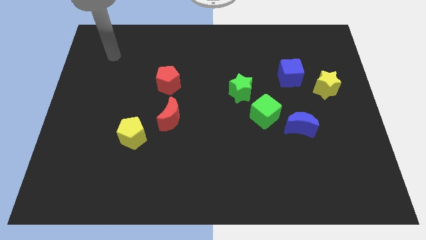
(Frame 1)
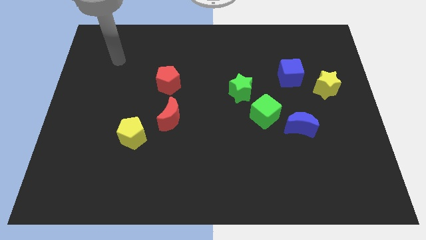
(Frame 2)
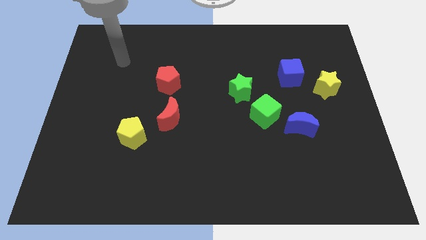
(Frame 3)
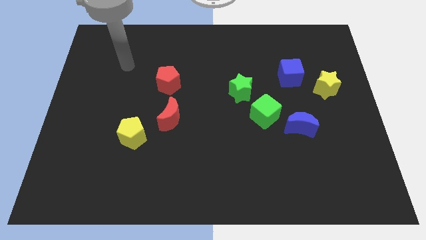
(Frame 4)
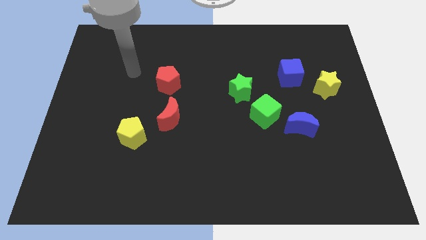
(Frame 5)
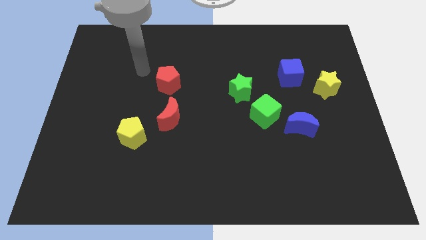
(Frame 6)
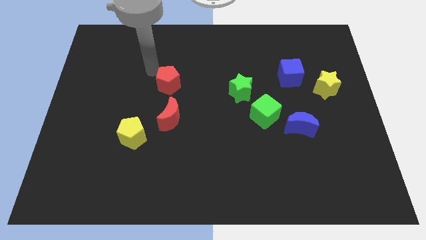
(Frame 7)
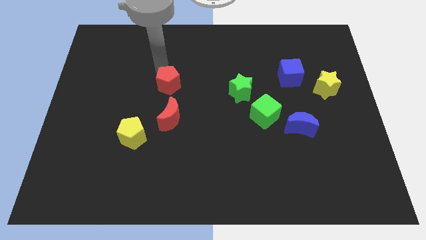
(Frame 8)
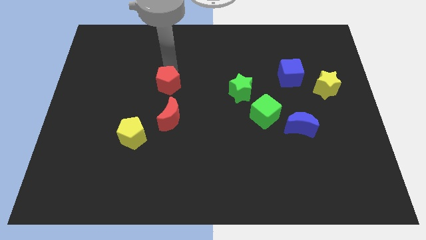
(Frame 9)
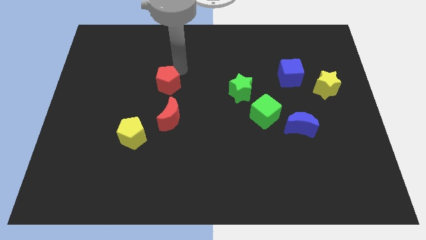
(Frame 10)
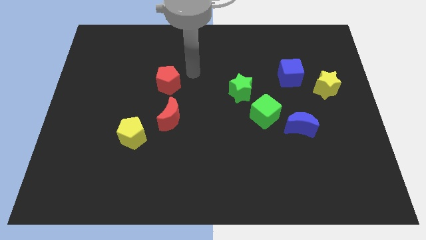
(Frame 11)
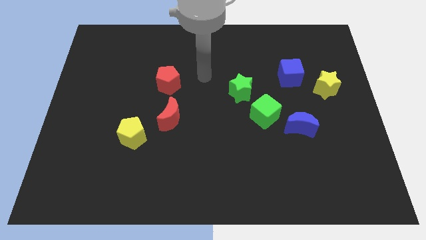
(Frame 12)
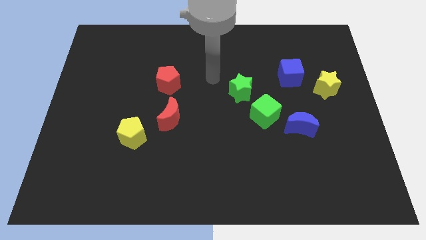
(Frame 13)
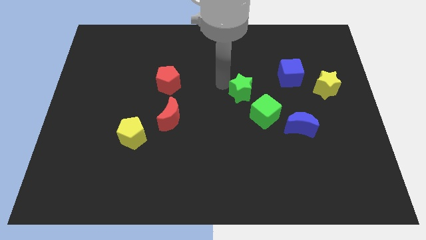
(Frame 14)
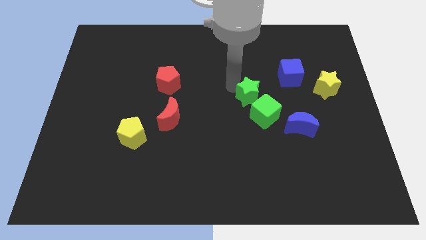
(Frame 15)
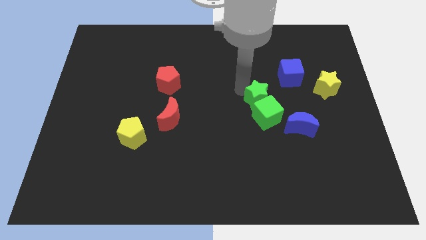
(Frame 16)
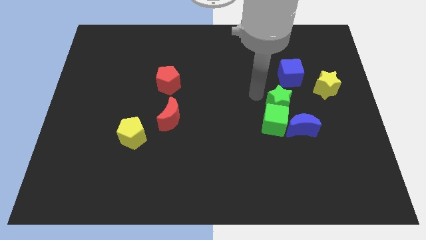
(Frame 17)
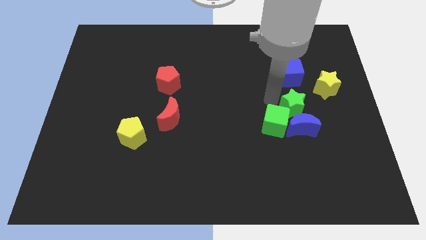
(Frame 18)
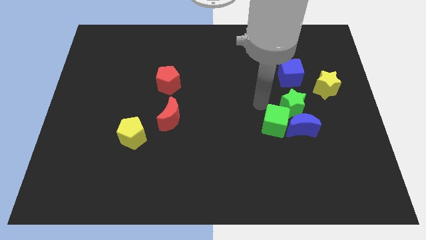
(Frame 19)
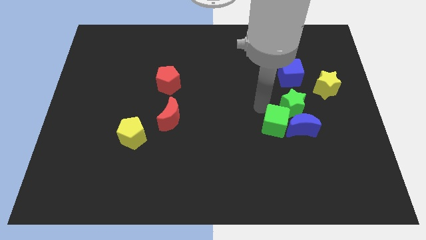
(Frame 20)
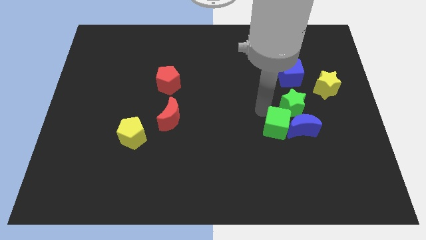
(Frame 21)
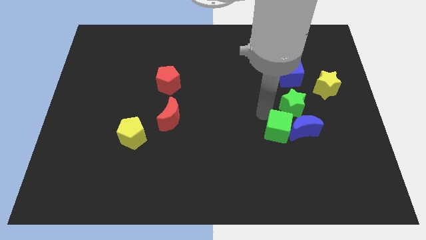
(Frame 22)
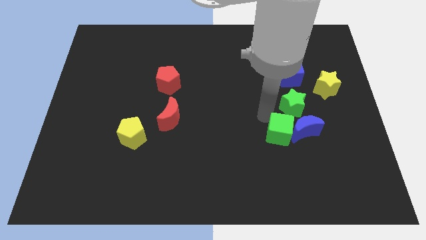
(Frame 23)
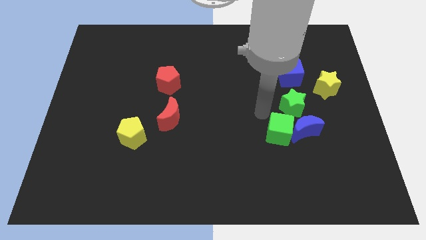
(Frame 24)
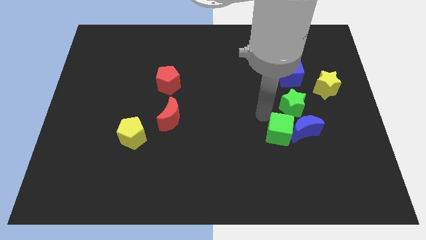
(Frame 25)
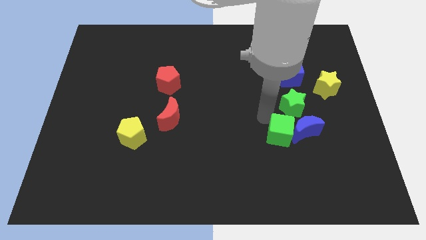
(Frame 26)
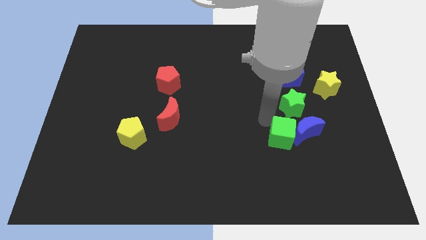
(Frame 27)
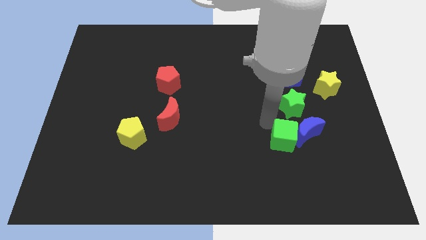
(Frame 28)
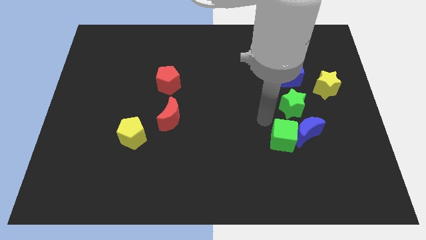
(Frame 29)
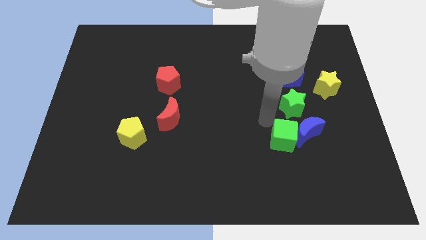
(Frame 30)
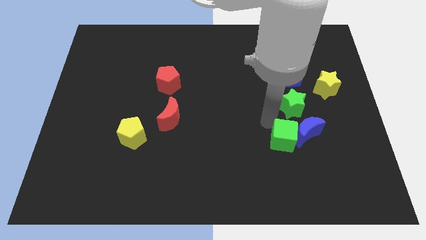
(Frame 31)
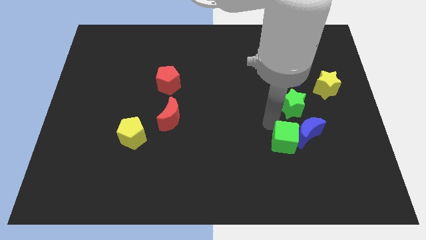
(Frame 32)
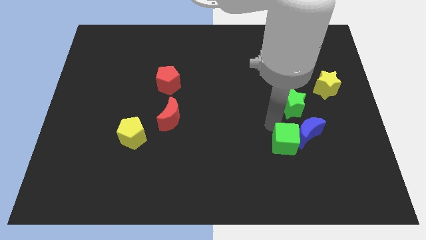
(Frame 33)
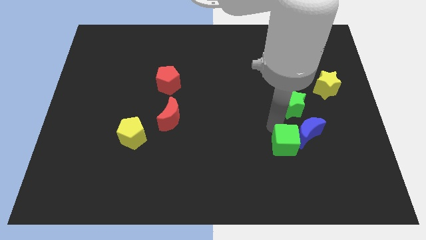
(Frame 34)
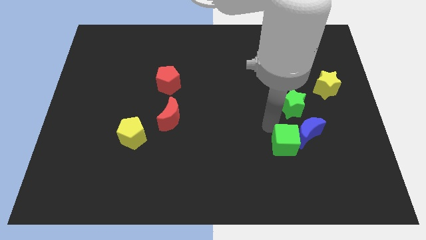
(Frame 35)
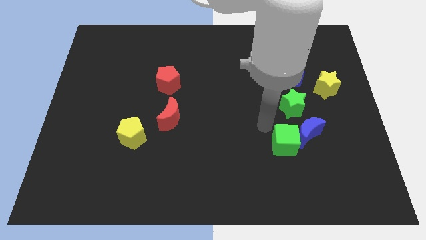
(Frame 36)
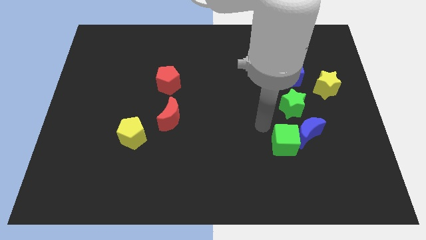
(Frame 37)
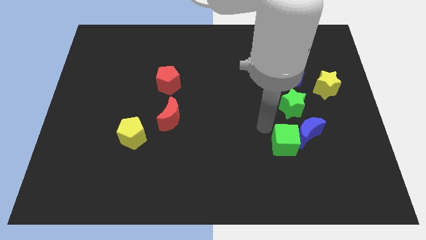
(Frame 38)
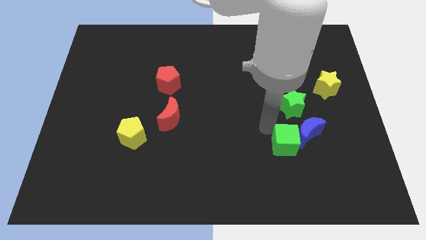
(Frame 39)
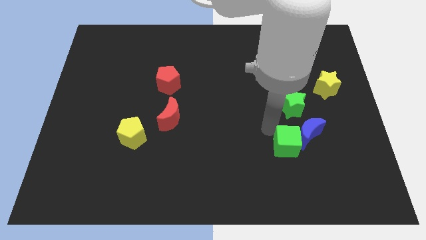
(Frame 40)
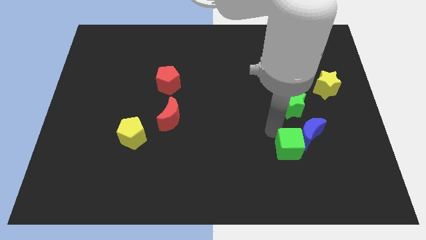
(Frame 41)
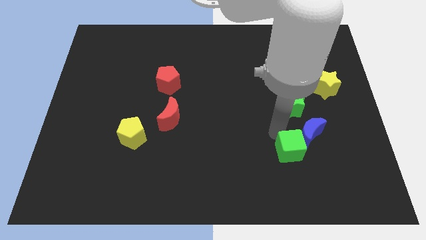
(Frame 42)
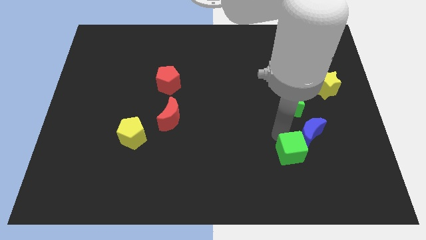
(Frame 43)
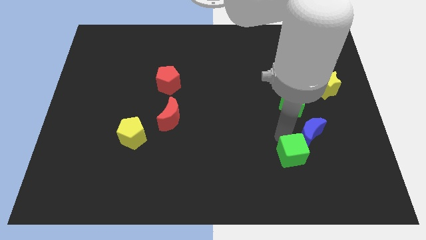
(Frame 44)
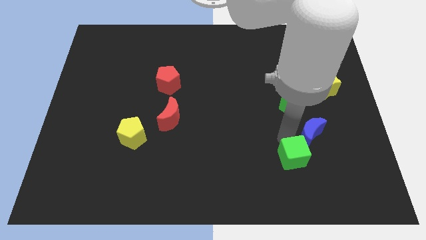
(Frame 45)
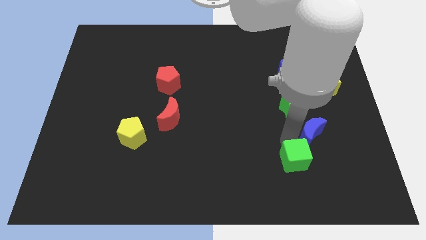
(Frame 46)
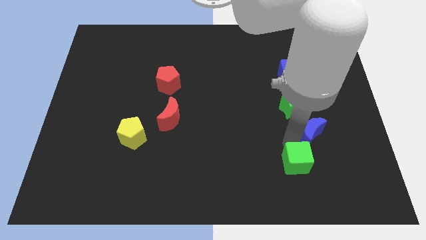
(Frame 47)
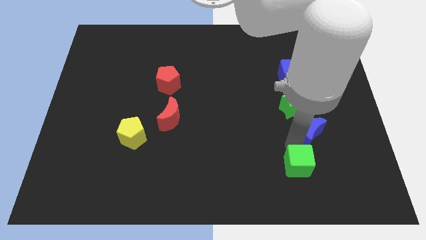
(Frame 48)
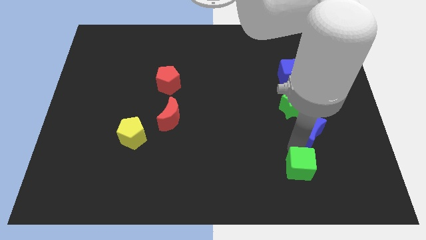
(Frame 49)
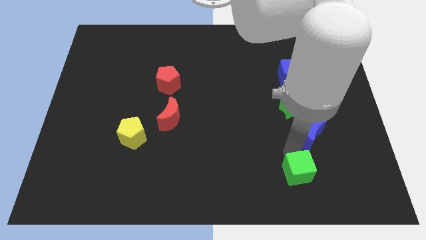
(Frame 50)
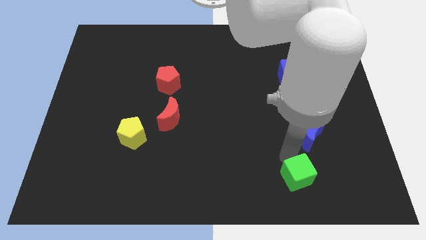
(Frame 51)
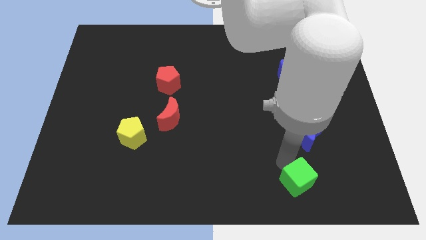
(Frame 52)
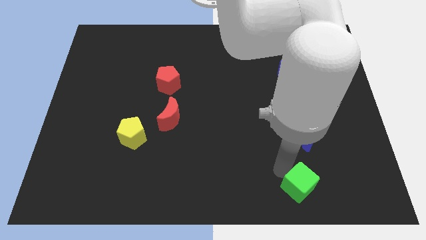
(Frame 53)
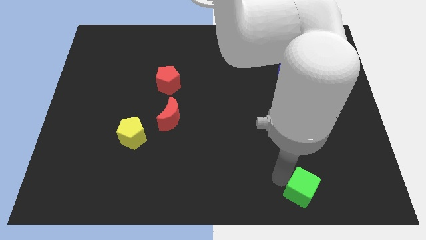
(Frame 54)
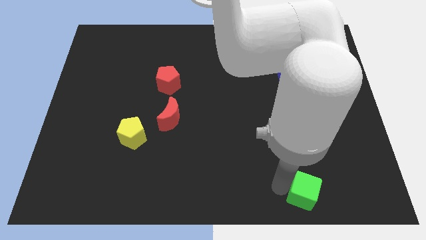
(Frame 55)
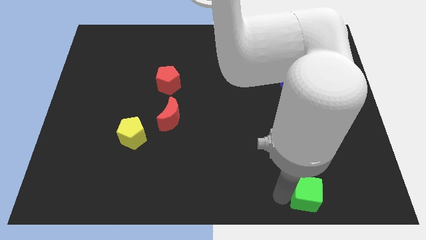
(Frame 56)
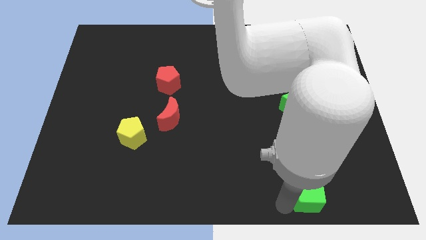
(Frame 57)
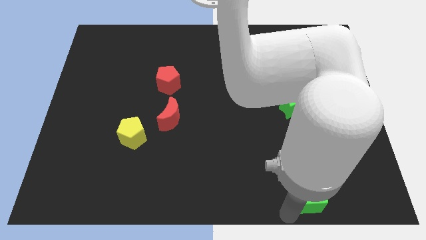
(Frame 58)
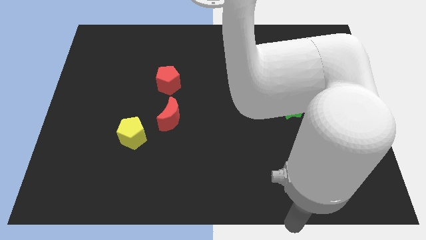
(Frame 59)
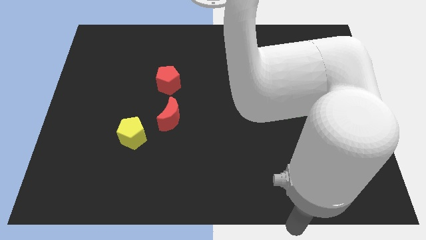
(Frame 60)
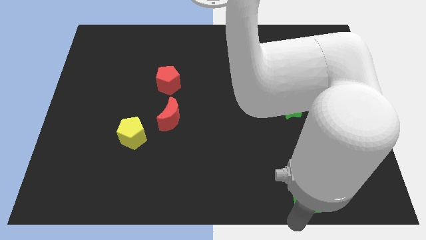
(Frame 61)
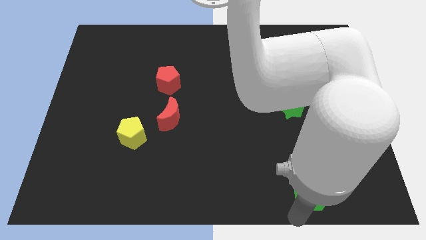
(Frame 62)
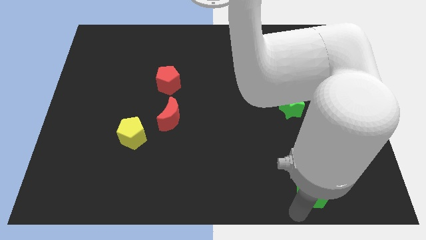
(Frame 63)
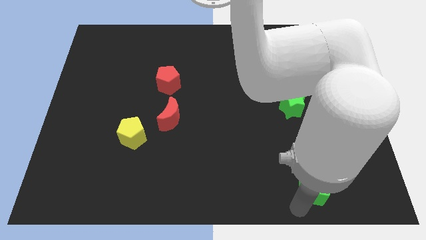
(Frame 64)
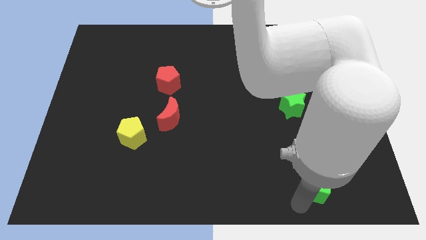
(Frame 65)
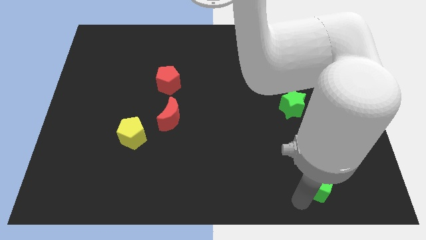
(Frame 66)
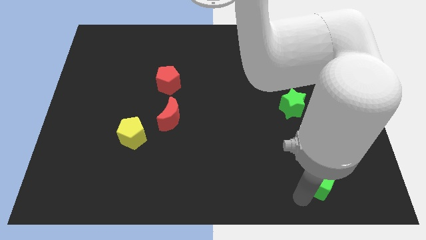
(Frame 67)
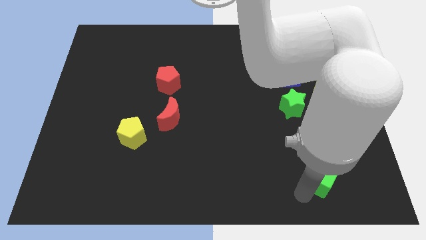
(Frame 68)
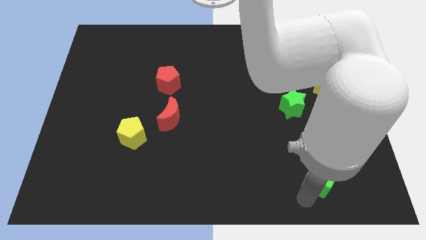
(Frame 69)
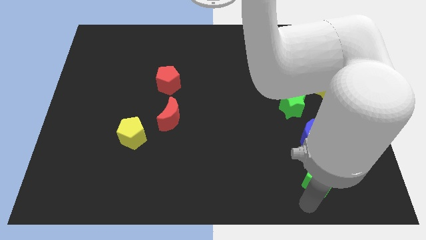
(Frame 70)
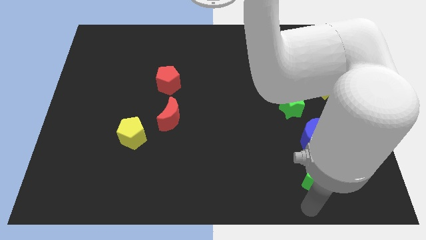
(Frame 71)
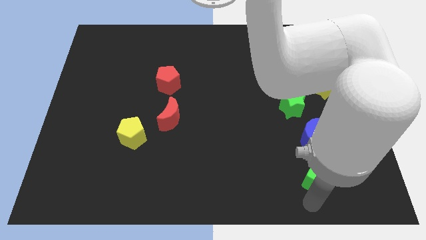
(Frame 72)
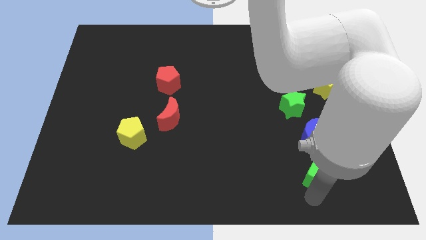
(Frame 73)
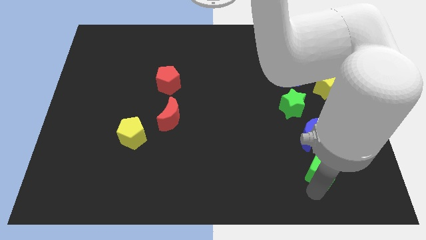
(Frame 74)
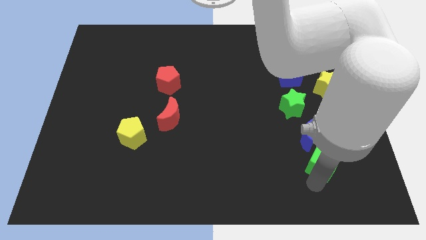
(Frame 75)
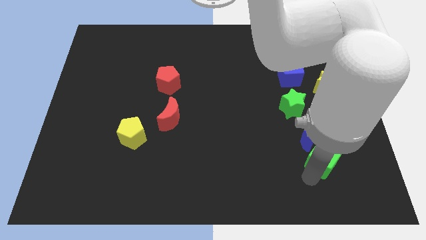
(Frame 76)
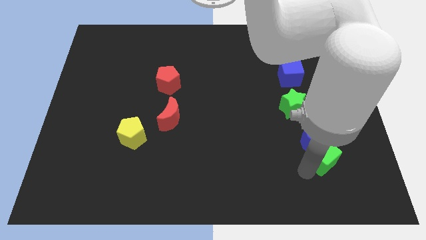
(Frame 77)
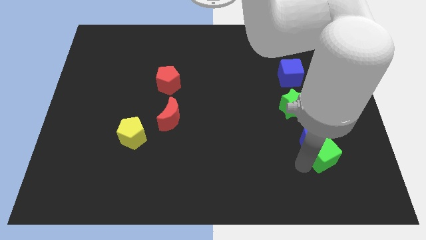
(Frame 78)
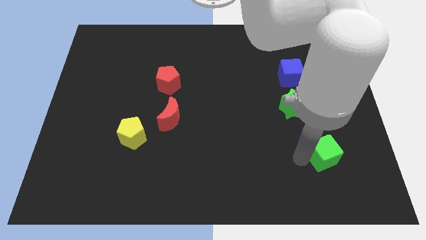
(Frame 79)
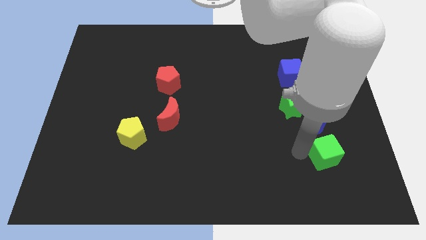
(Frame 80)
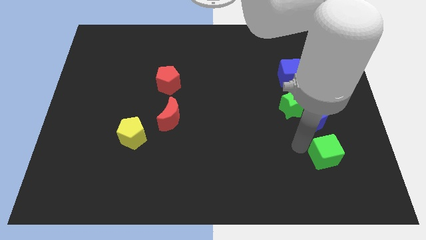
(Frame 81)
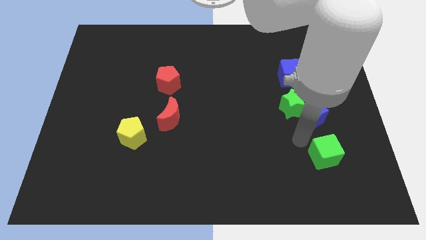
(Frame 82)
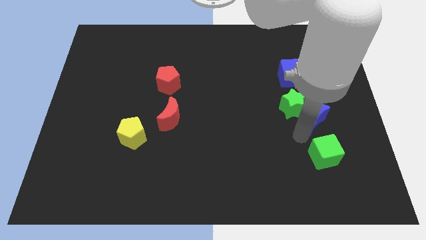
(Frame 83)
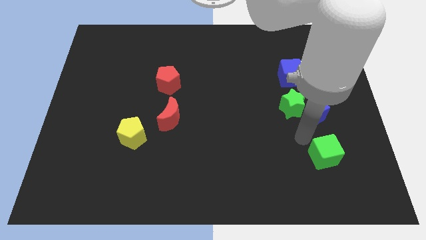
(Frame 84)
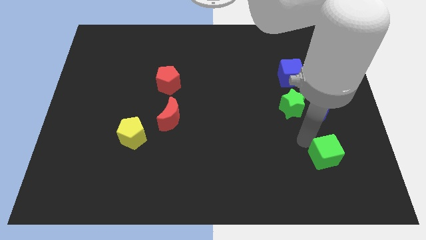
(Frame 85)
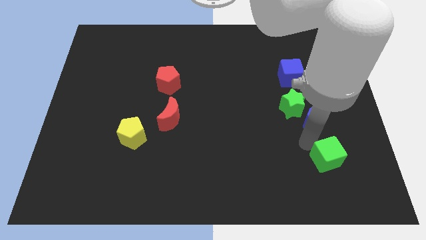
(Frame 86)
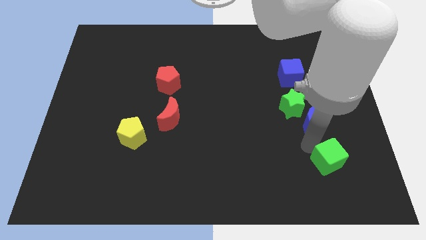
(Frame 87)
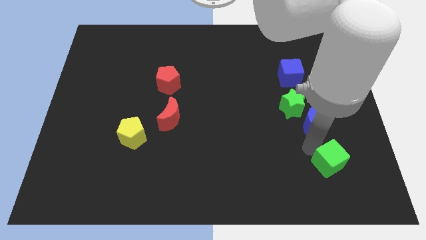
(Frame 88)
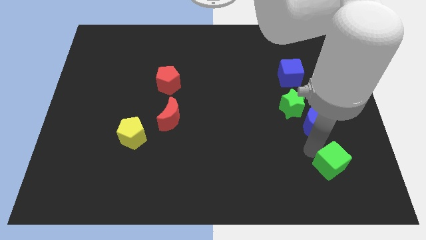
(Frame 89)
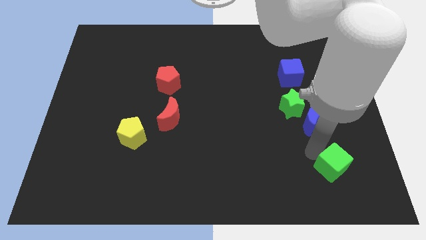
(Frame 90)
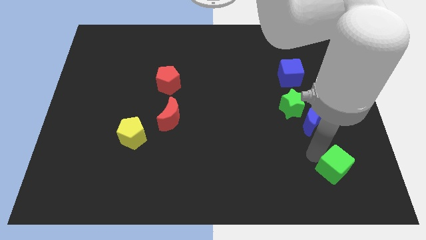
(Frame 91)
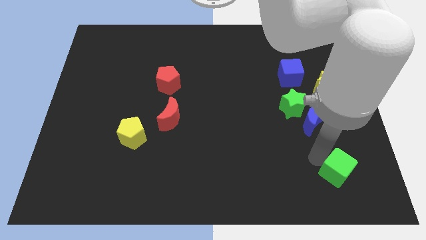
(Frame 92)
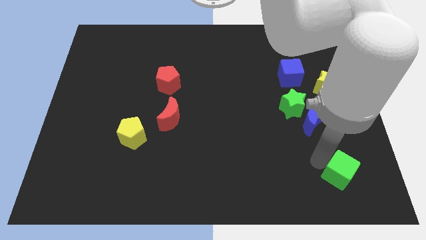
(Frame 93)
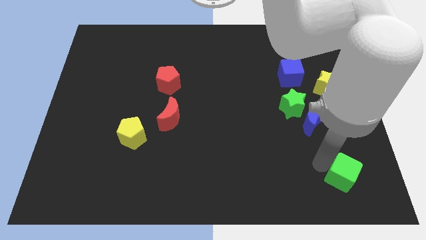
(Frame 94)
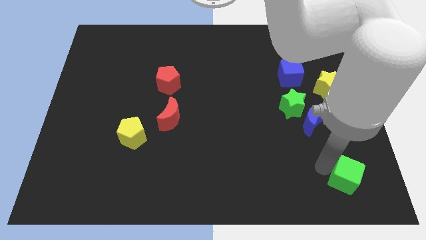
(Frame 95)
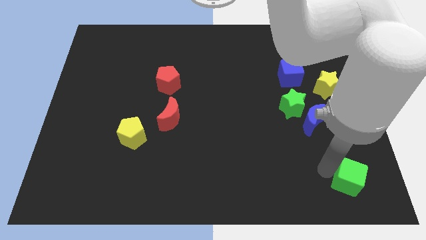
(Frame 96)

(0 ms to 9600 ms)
move the green cube to the lower right corner
